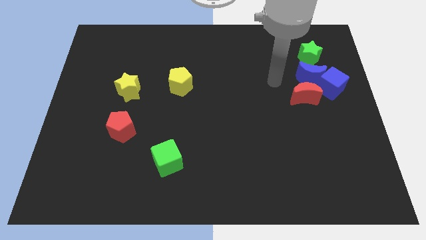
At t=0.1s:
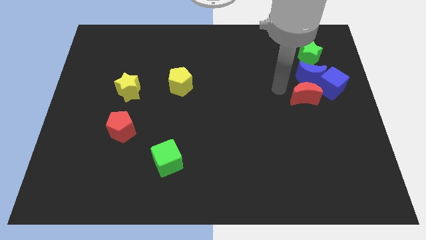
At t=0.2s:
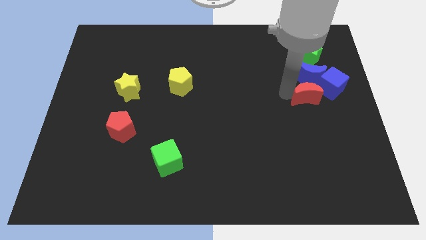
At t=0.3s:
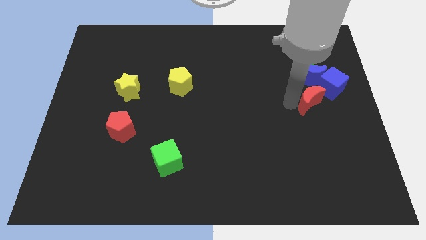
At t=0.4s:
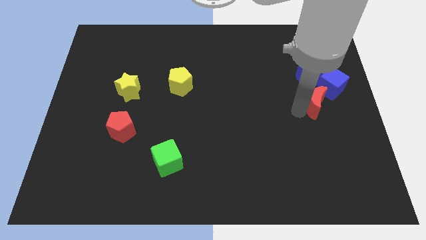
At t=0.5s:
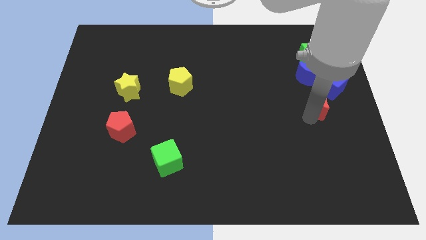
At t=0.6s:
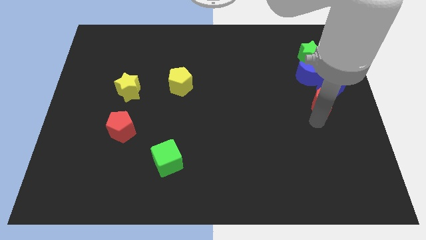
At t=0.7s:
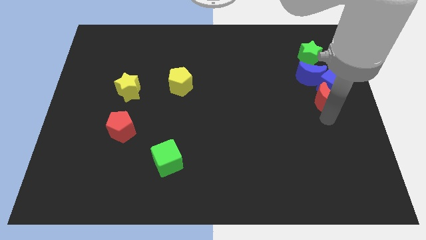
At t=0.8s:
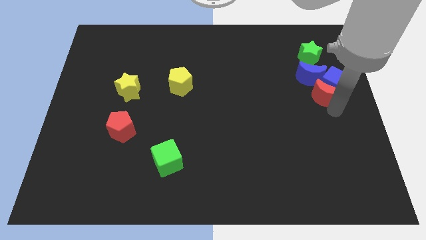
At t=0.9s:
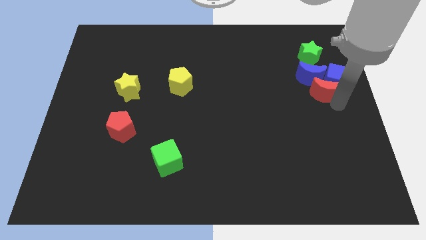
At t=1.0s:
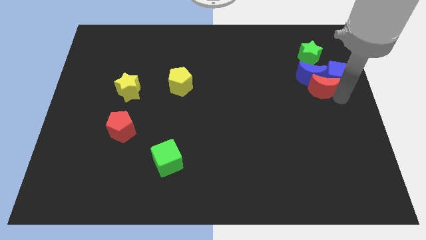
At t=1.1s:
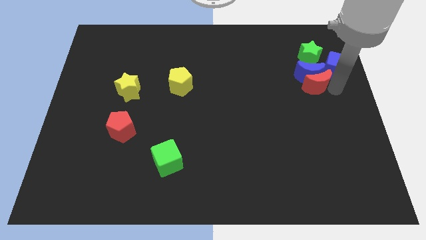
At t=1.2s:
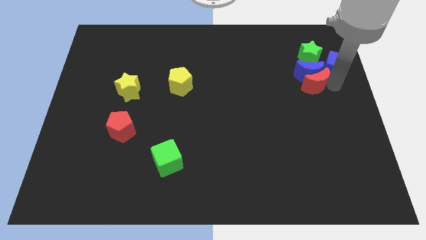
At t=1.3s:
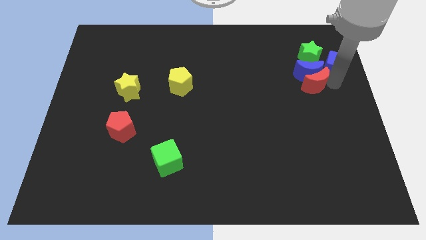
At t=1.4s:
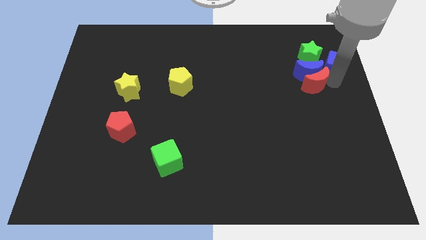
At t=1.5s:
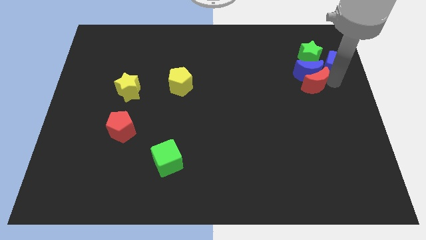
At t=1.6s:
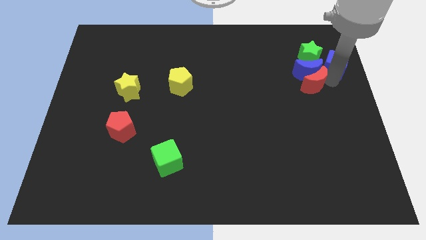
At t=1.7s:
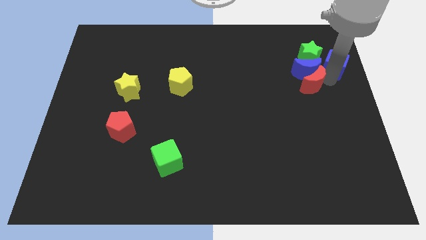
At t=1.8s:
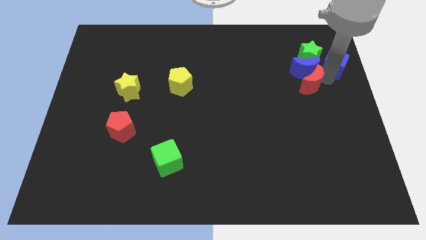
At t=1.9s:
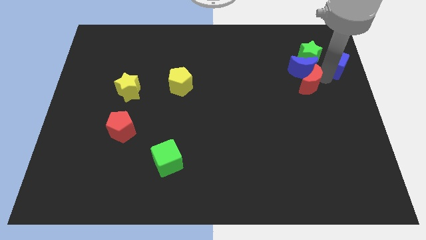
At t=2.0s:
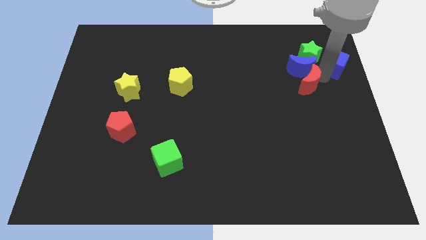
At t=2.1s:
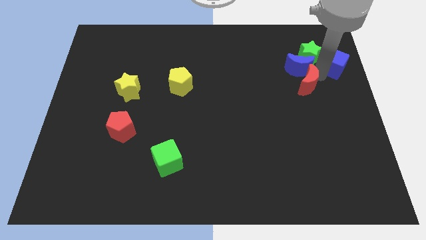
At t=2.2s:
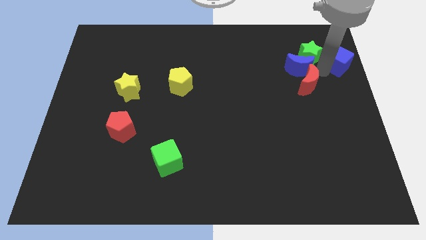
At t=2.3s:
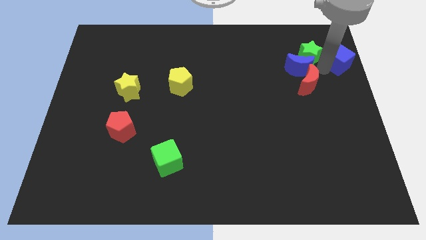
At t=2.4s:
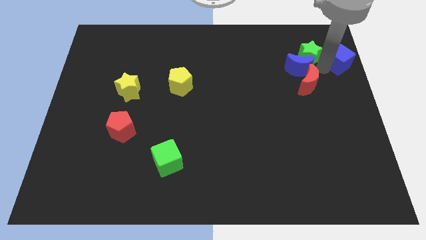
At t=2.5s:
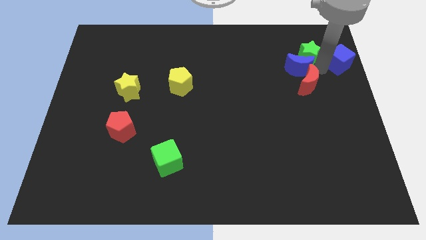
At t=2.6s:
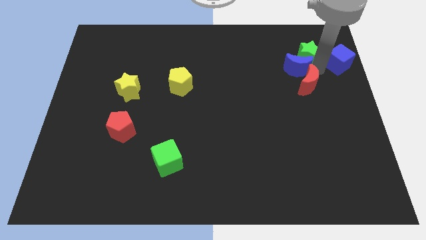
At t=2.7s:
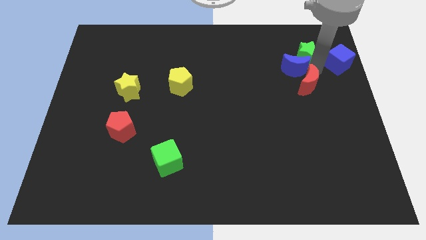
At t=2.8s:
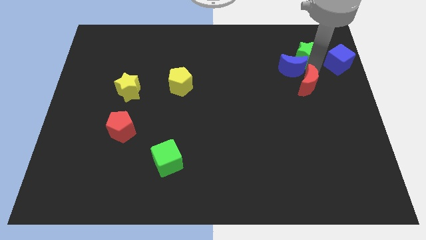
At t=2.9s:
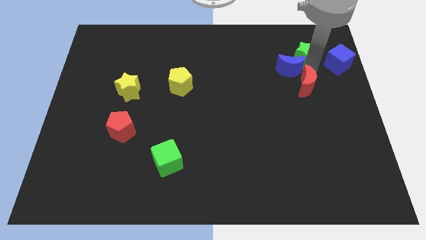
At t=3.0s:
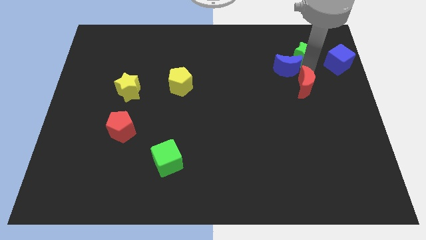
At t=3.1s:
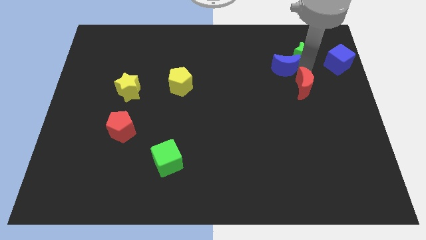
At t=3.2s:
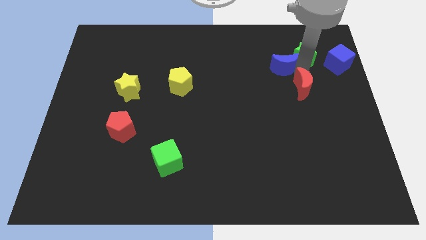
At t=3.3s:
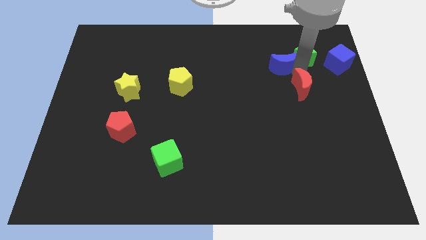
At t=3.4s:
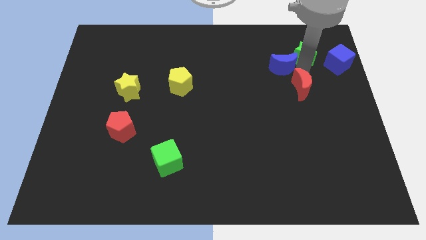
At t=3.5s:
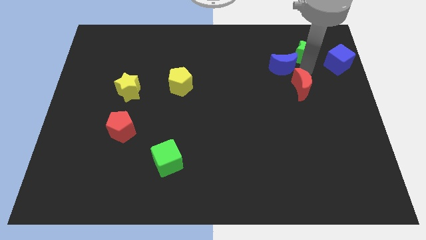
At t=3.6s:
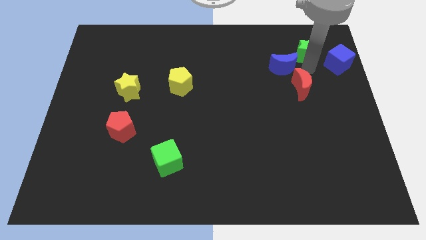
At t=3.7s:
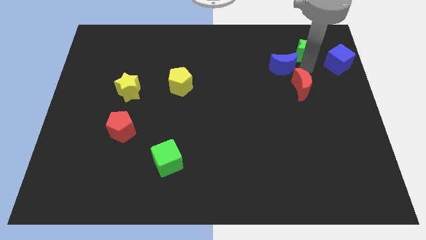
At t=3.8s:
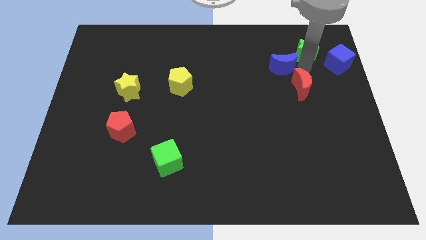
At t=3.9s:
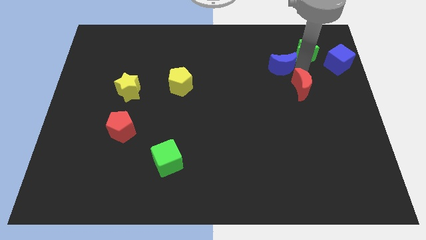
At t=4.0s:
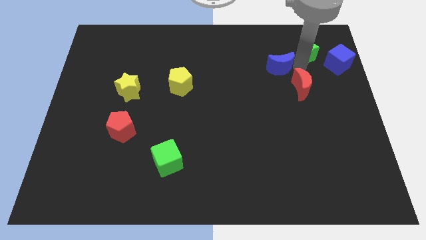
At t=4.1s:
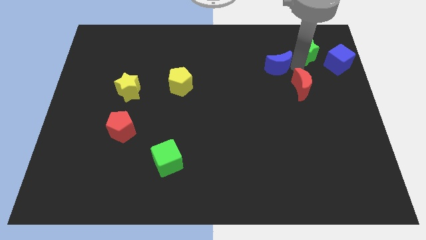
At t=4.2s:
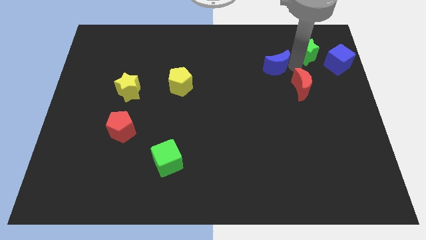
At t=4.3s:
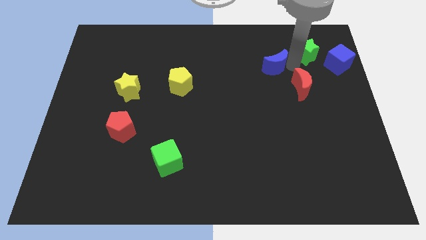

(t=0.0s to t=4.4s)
move the blue moon away from the group

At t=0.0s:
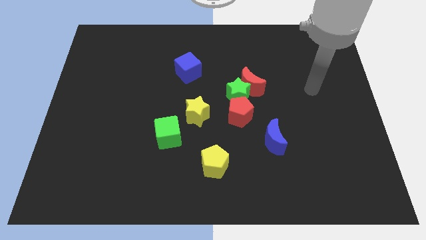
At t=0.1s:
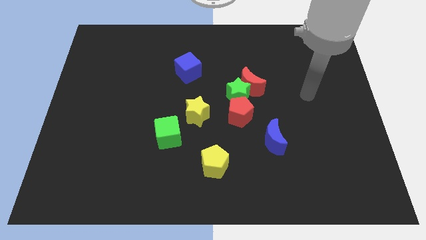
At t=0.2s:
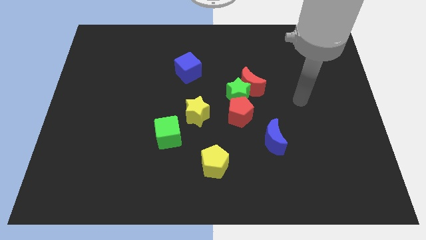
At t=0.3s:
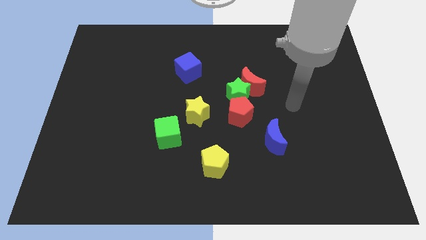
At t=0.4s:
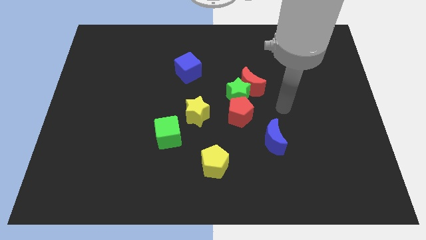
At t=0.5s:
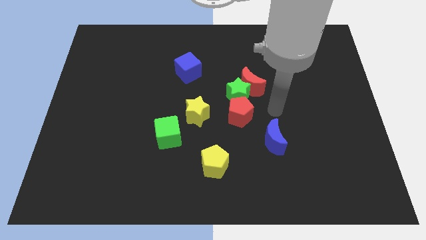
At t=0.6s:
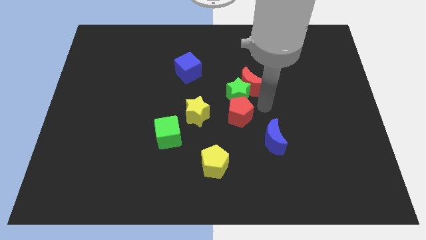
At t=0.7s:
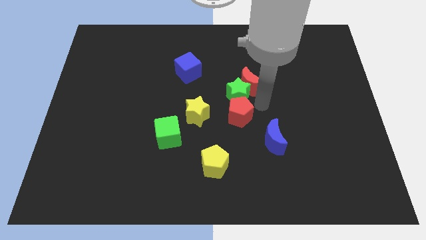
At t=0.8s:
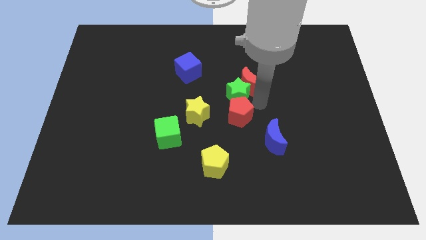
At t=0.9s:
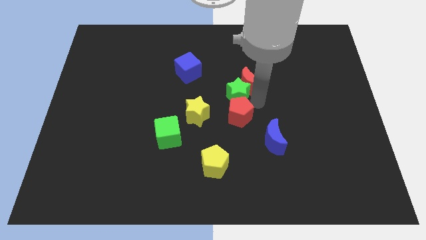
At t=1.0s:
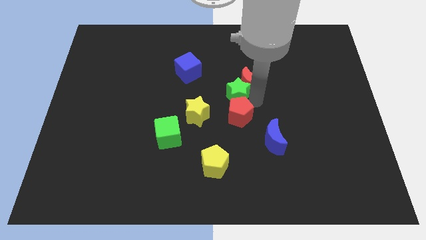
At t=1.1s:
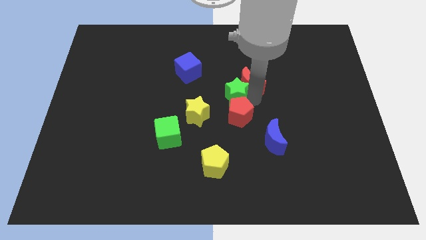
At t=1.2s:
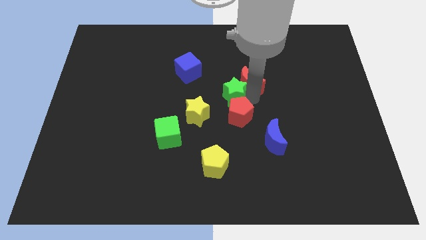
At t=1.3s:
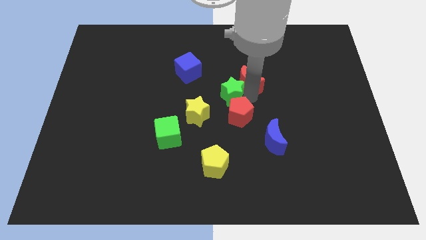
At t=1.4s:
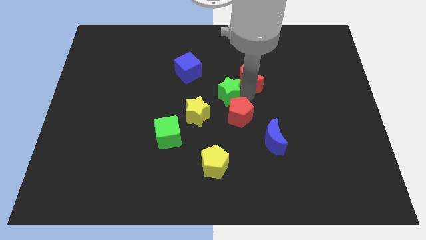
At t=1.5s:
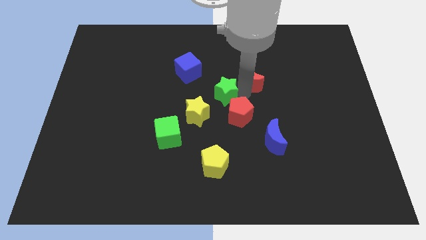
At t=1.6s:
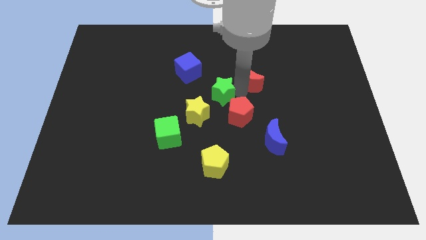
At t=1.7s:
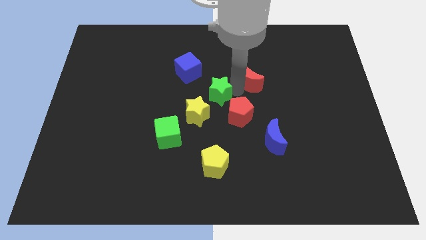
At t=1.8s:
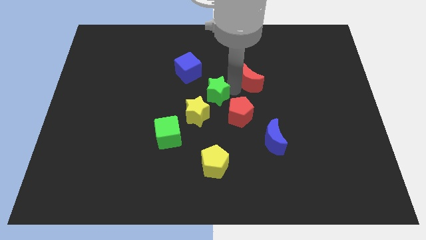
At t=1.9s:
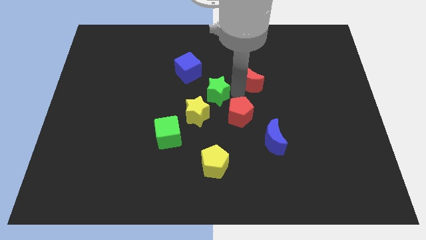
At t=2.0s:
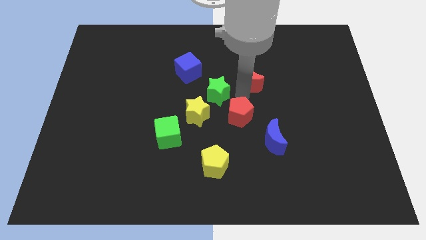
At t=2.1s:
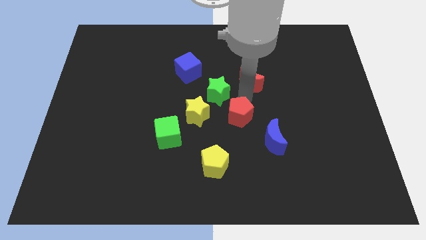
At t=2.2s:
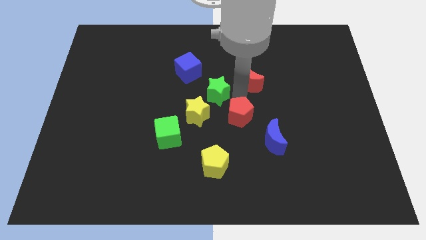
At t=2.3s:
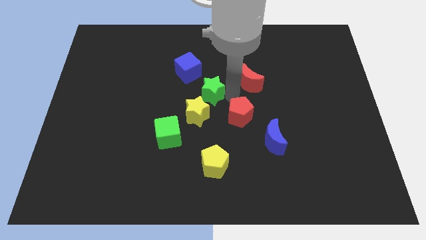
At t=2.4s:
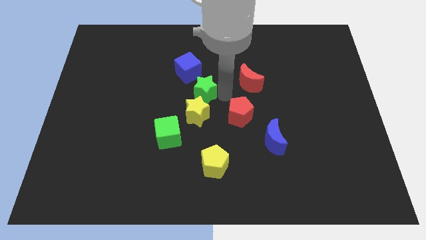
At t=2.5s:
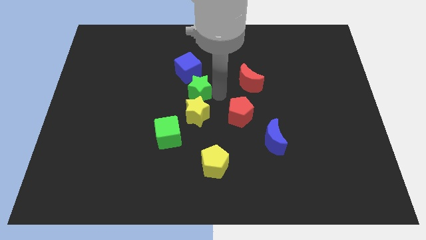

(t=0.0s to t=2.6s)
pull the green star apart from the red moon and red pentagon

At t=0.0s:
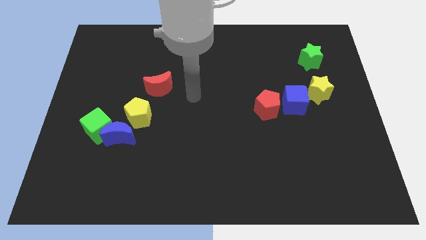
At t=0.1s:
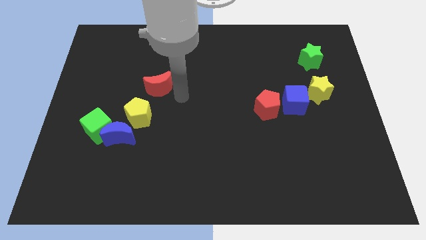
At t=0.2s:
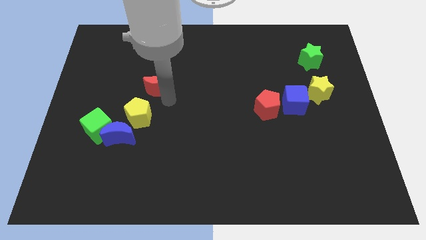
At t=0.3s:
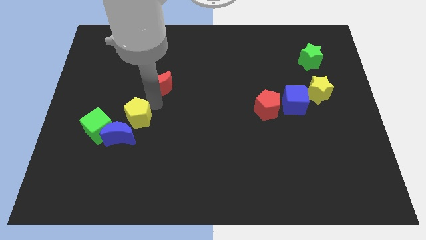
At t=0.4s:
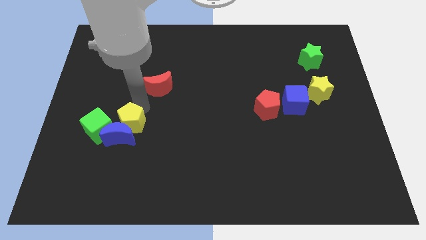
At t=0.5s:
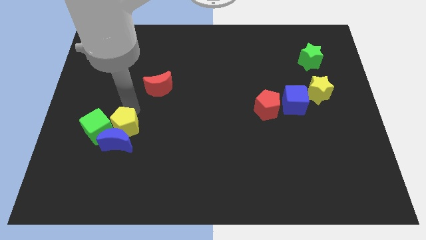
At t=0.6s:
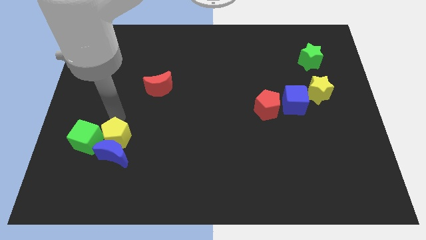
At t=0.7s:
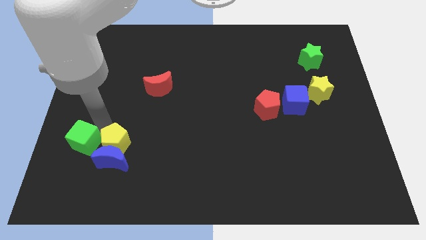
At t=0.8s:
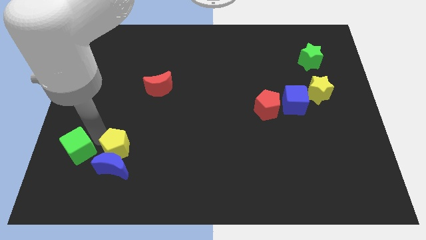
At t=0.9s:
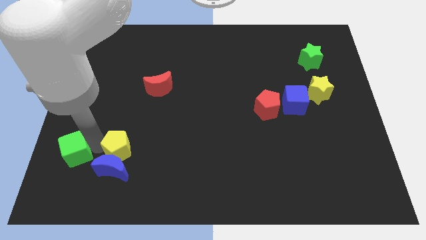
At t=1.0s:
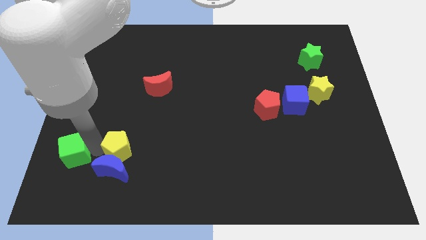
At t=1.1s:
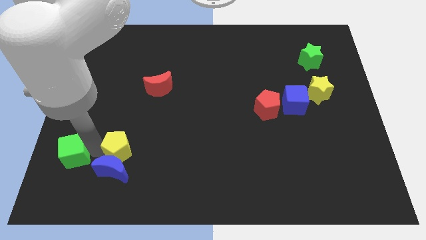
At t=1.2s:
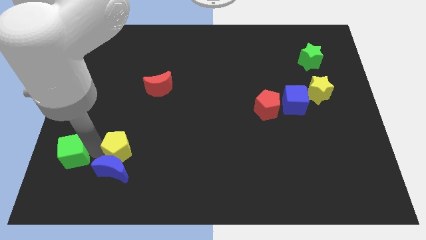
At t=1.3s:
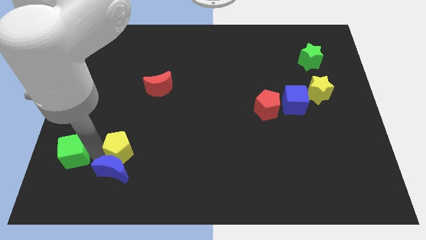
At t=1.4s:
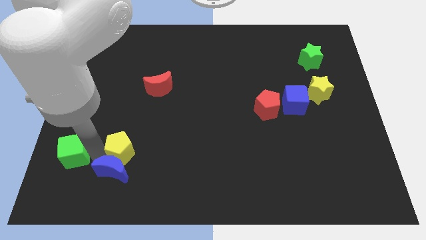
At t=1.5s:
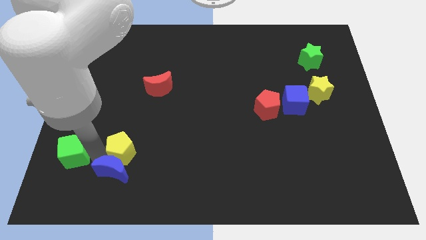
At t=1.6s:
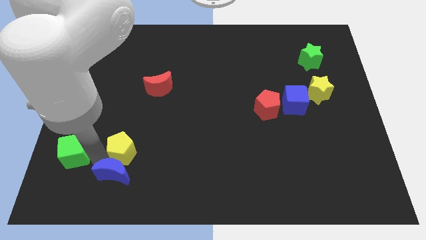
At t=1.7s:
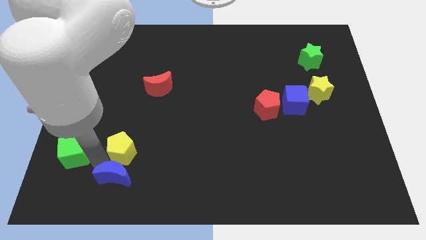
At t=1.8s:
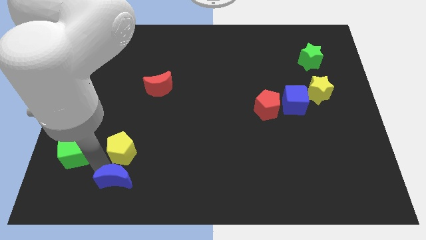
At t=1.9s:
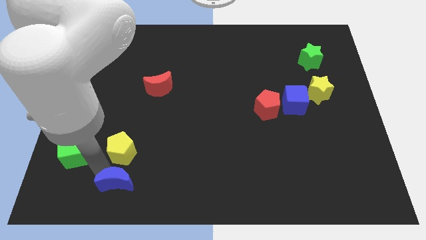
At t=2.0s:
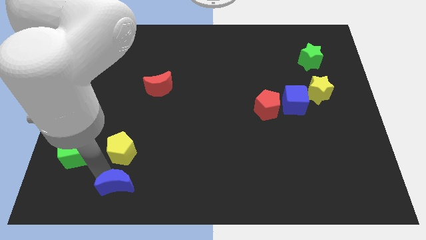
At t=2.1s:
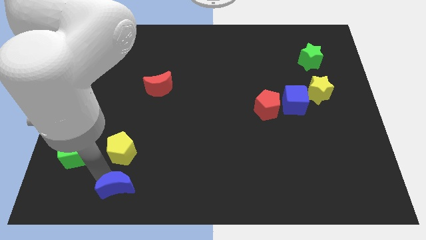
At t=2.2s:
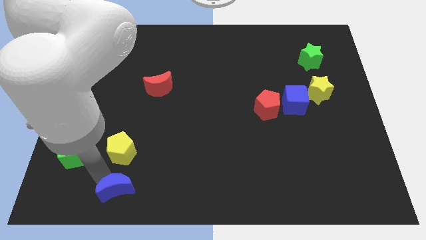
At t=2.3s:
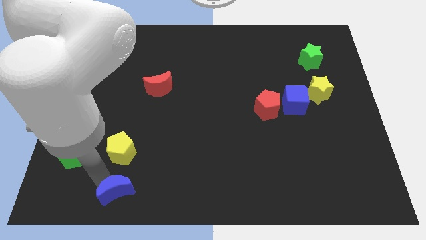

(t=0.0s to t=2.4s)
move the blue moon away from the green cube and yellow pentagon
